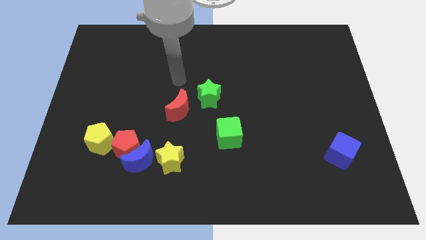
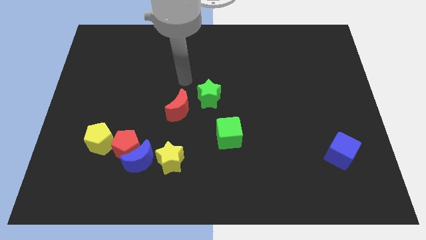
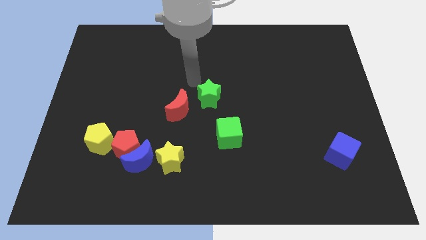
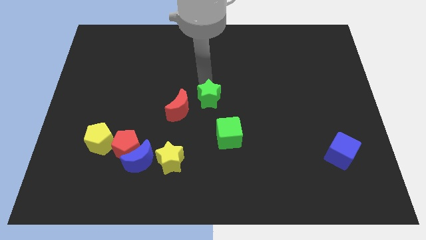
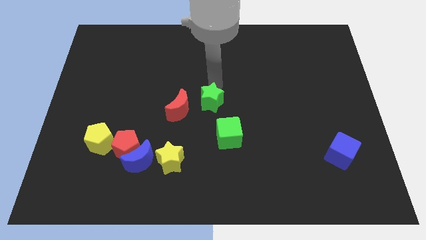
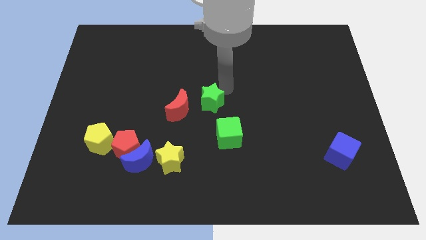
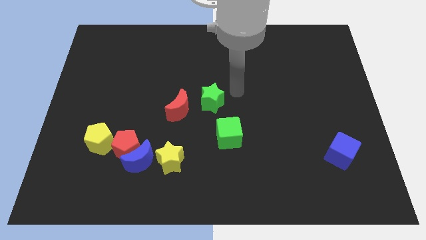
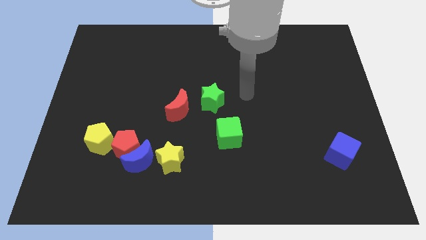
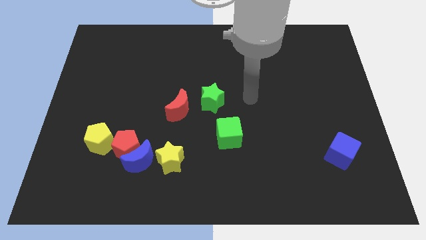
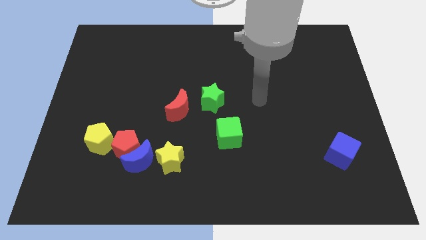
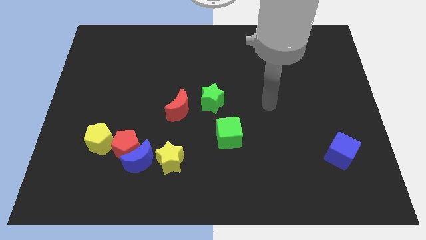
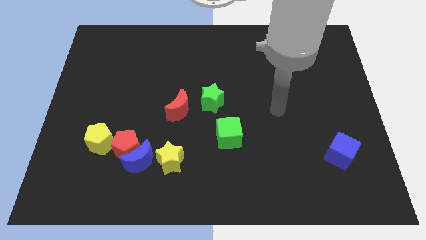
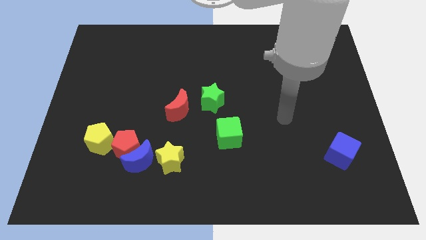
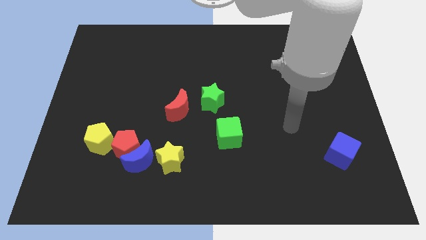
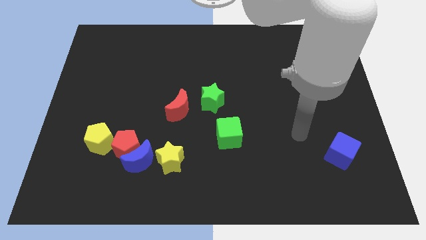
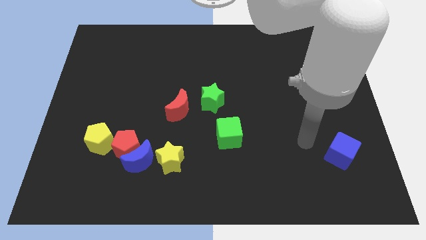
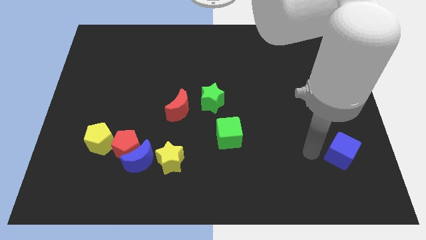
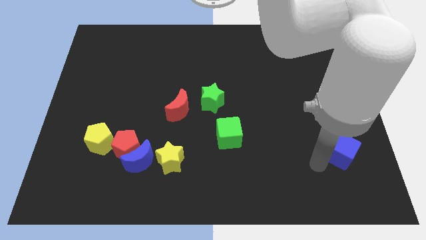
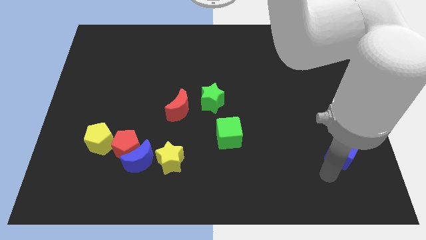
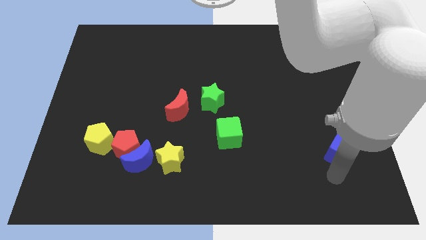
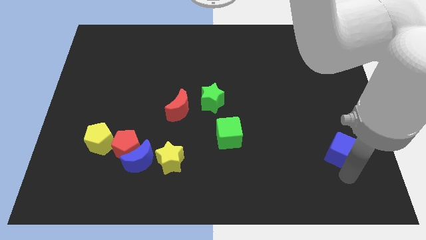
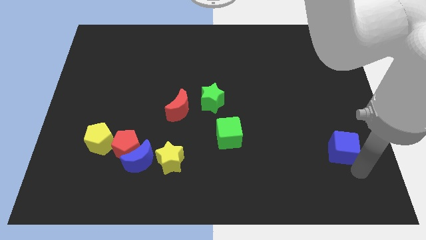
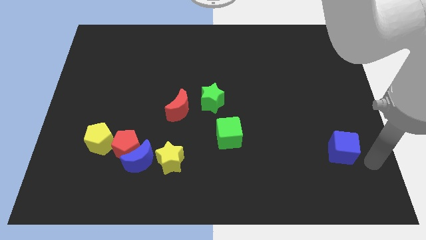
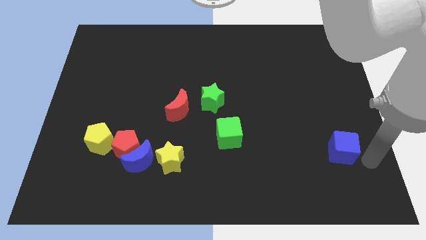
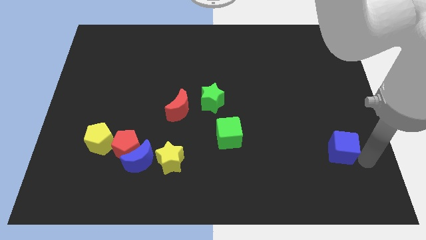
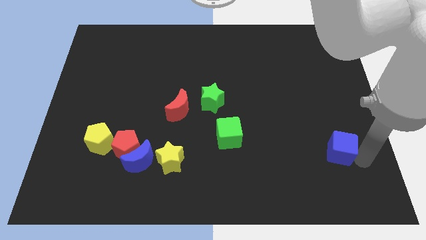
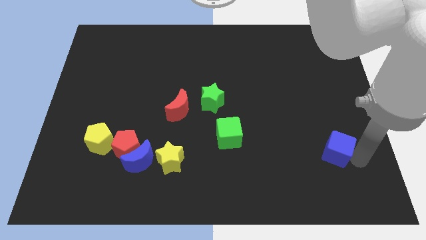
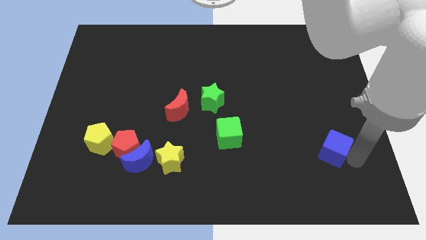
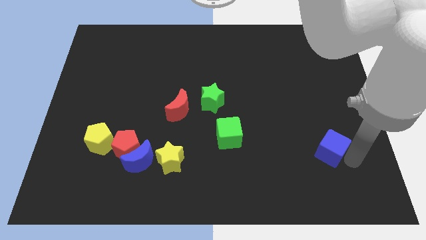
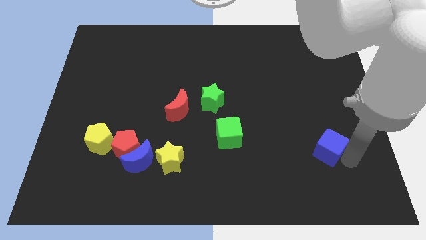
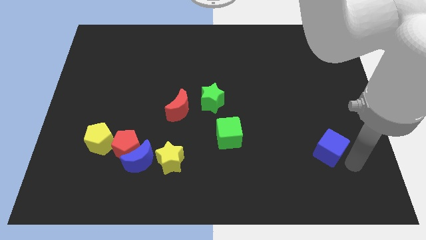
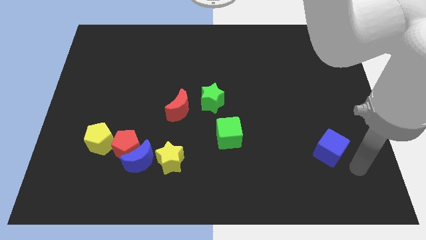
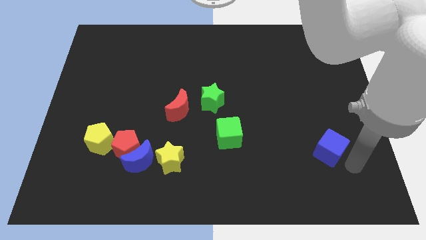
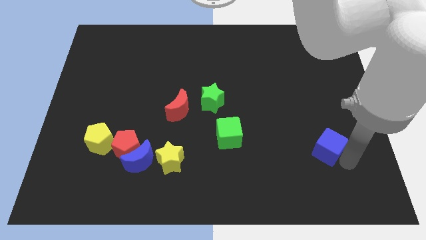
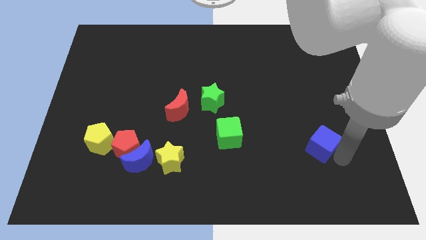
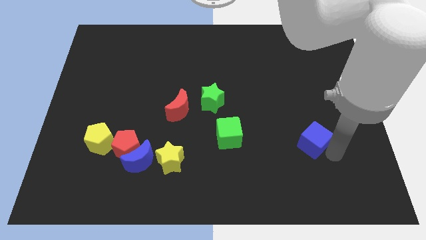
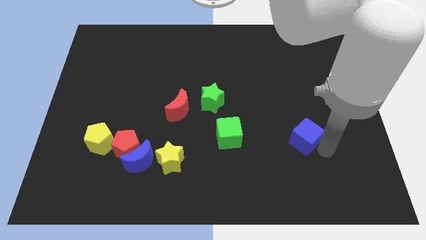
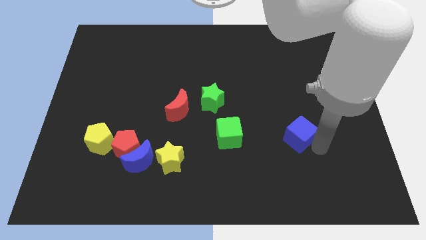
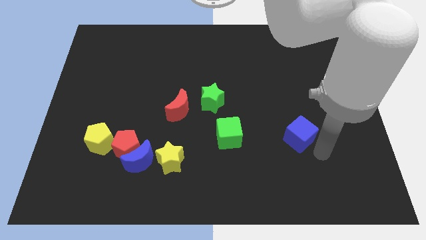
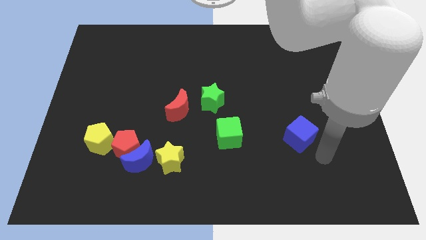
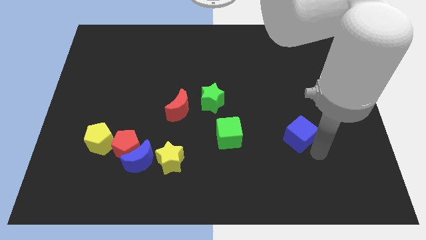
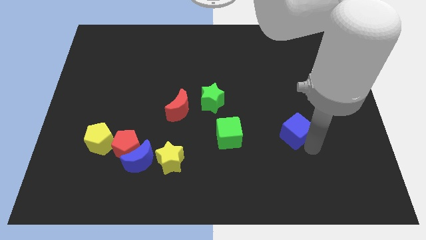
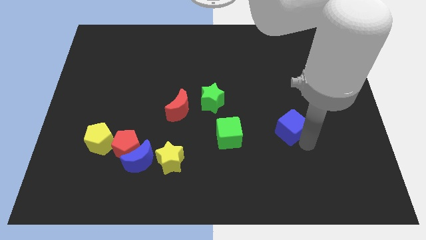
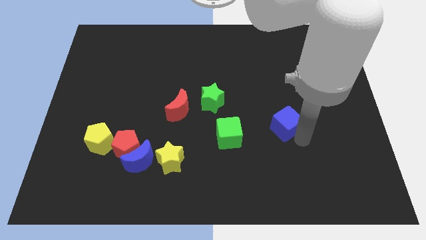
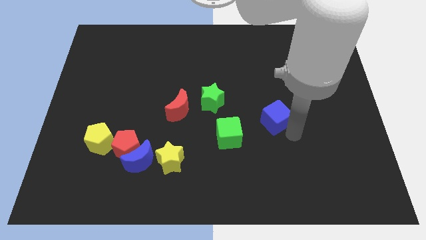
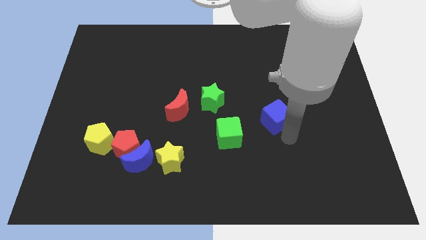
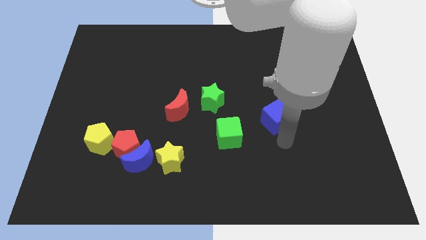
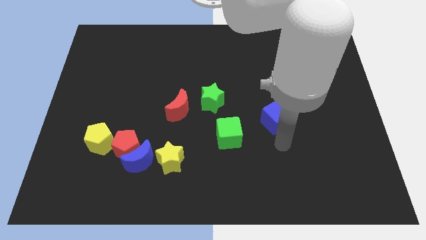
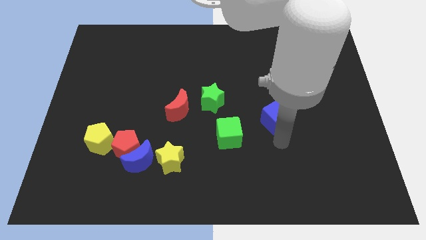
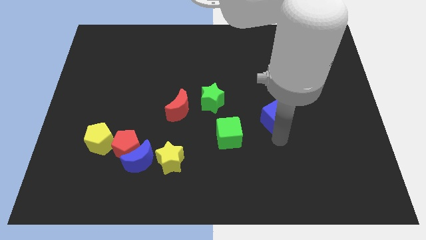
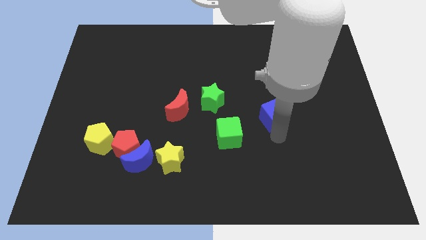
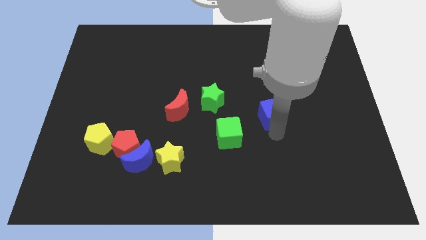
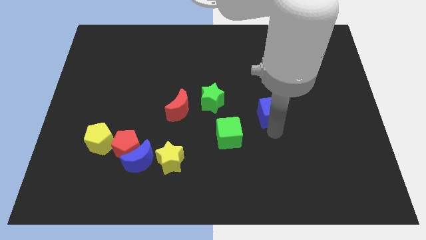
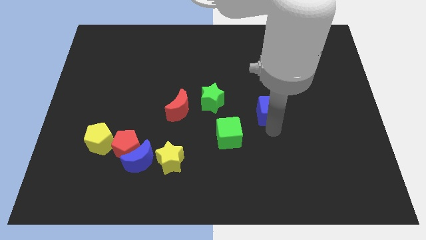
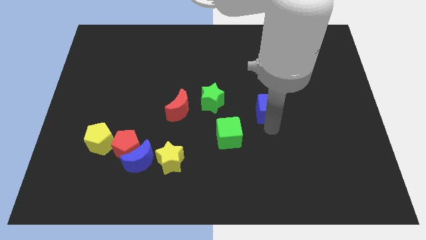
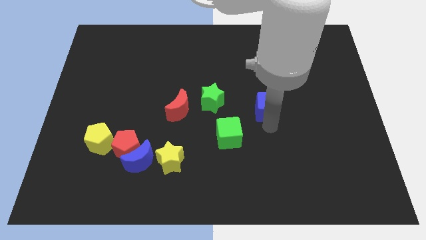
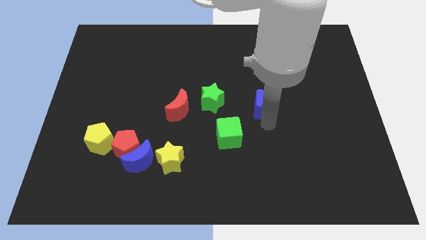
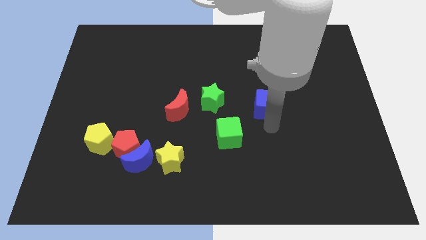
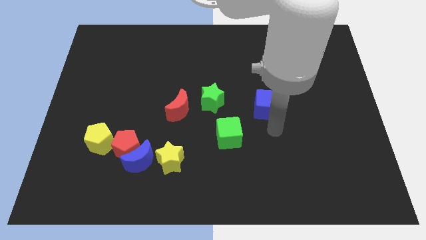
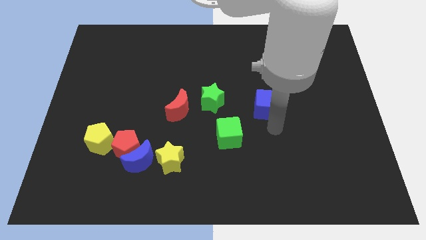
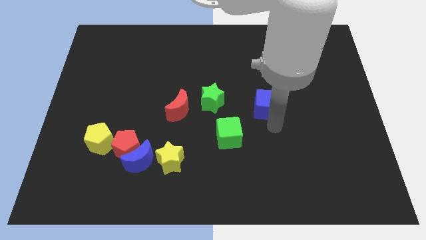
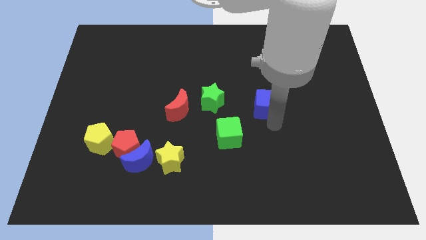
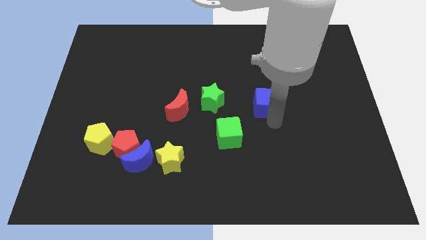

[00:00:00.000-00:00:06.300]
push the blue cube up and to the left diagonally

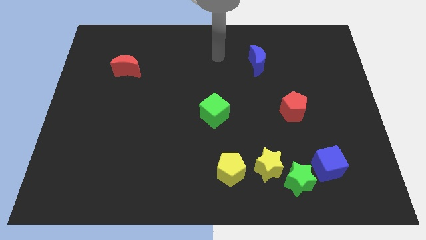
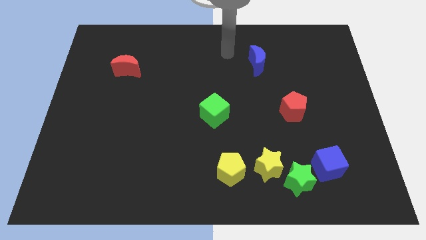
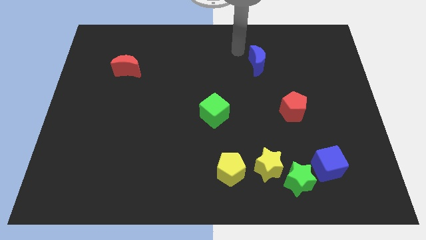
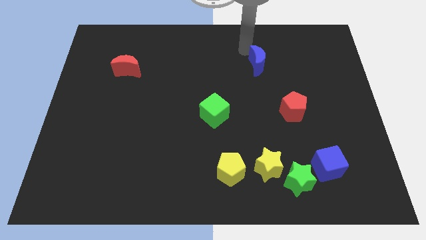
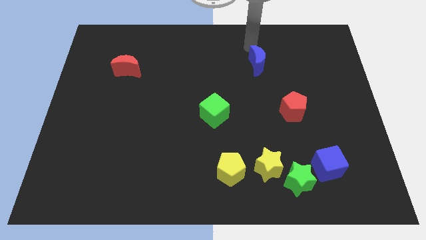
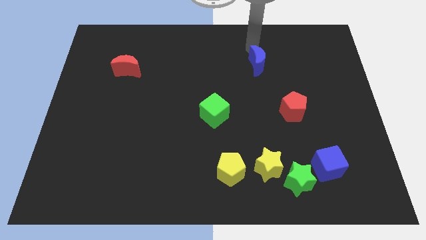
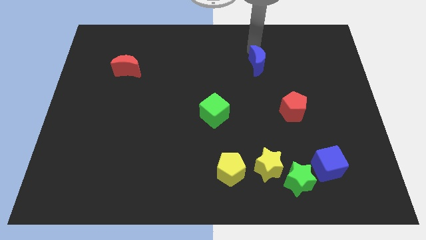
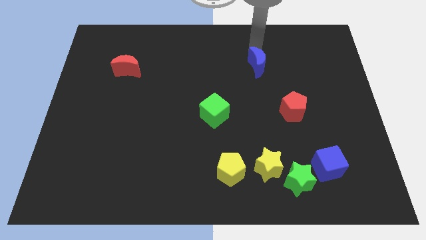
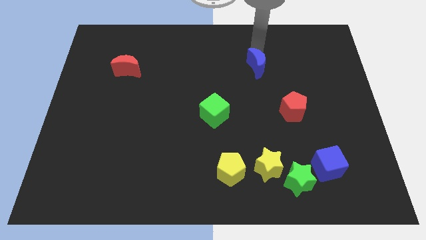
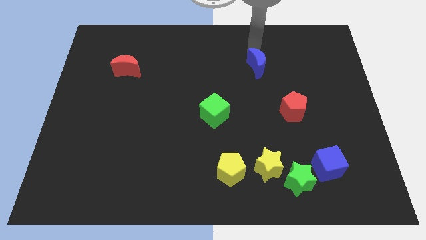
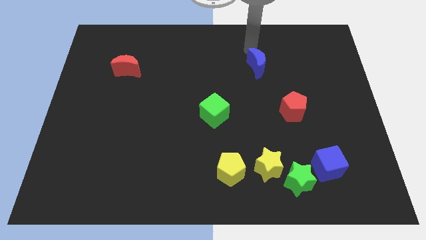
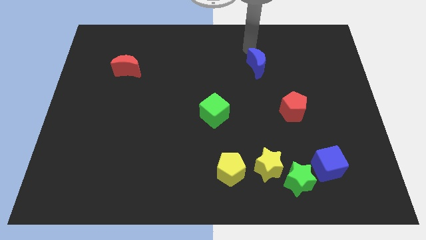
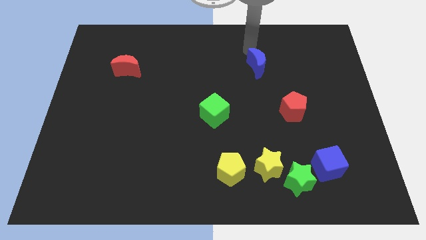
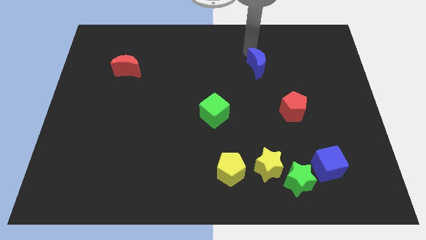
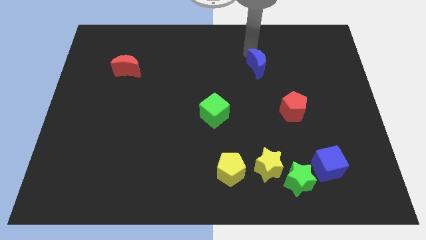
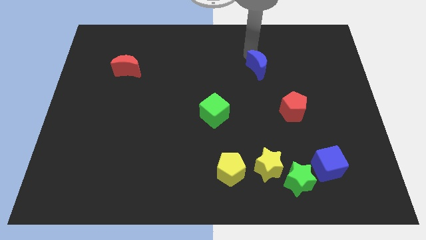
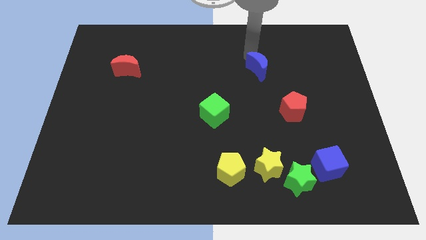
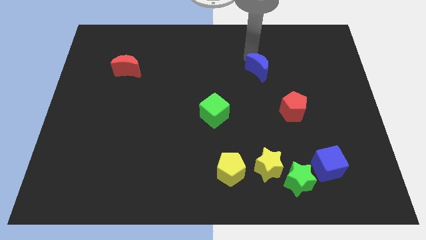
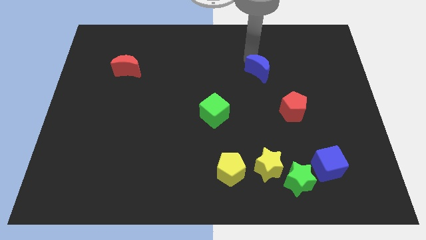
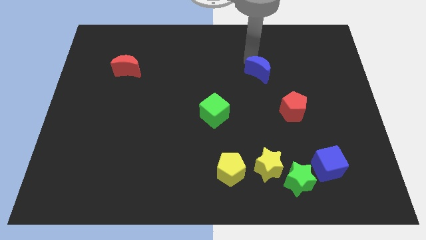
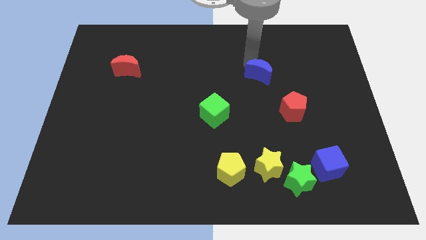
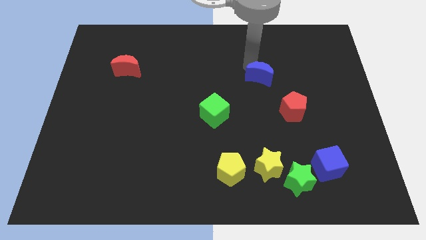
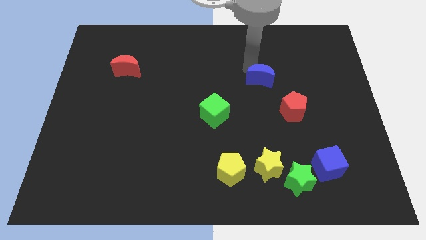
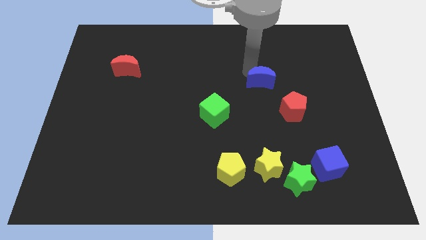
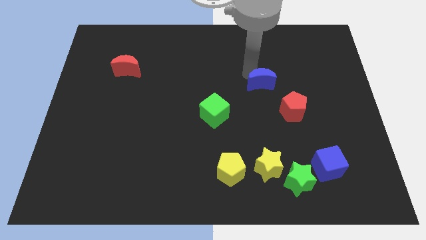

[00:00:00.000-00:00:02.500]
push the blue moon a bit downwards
